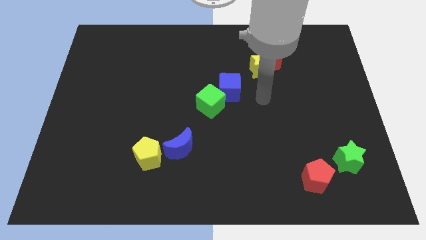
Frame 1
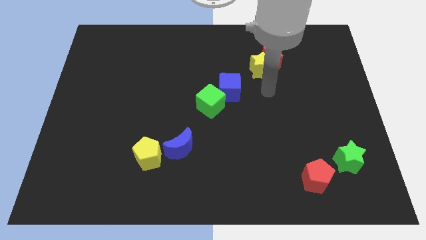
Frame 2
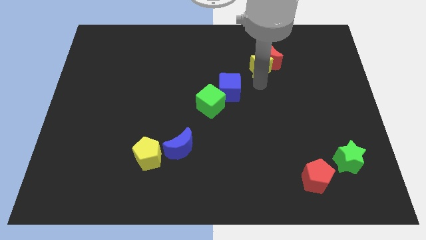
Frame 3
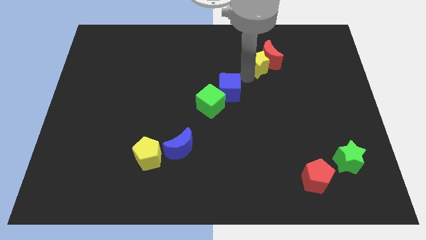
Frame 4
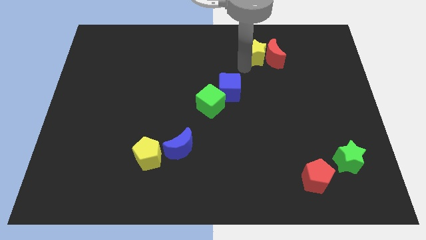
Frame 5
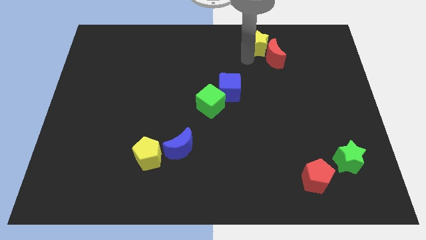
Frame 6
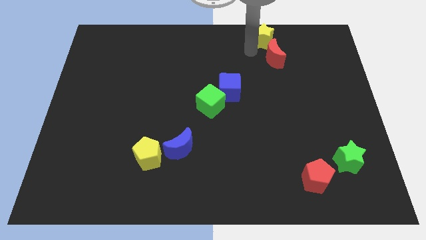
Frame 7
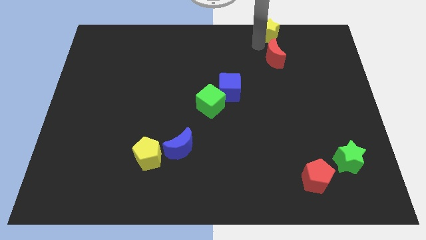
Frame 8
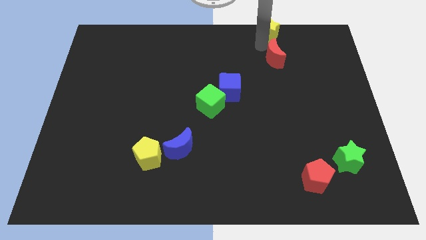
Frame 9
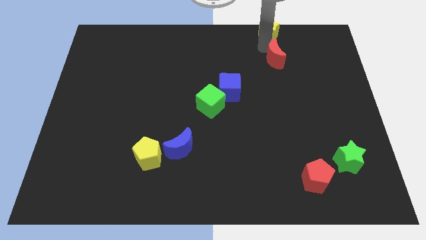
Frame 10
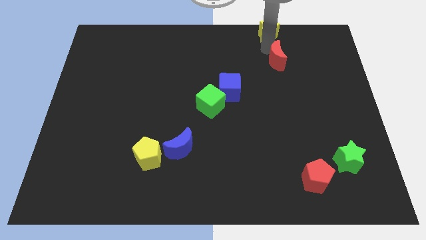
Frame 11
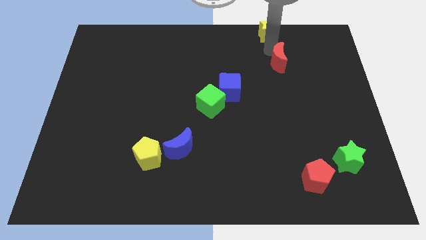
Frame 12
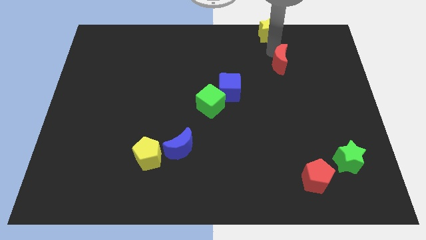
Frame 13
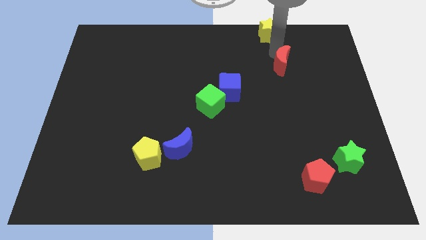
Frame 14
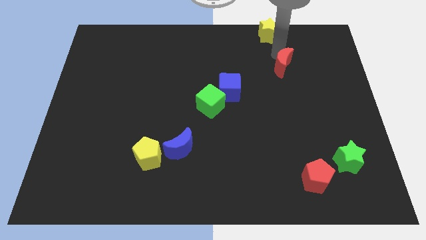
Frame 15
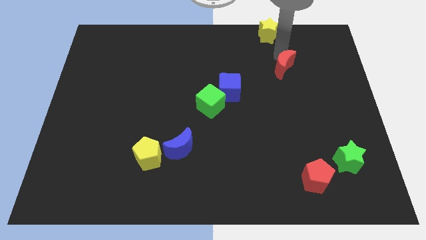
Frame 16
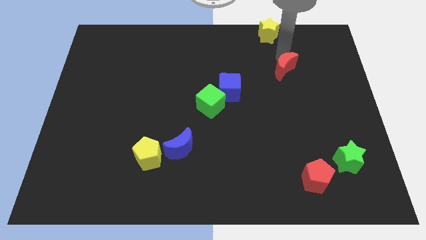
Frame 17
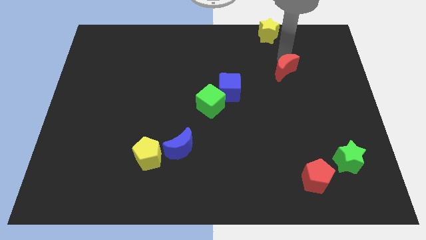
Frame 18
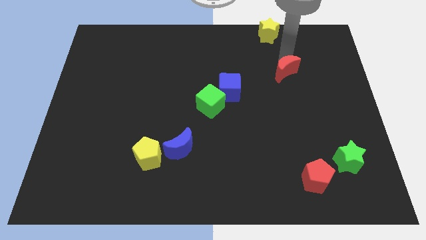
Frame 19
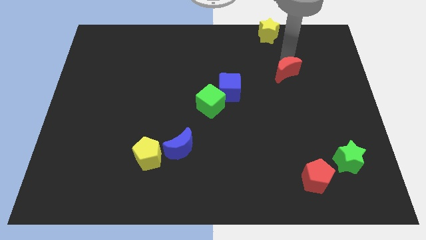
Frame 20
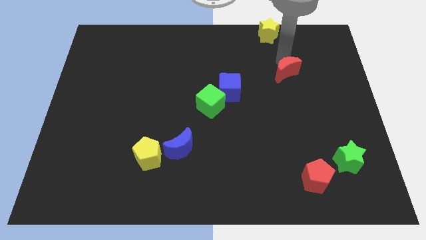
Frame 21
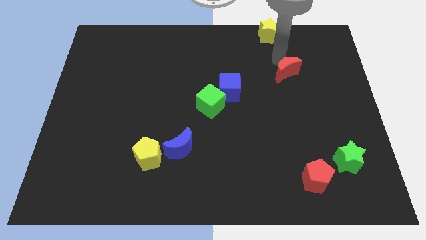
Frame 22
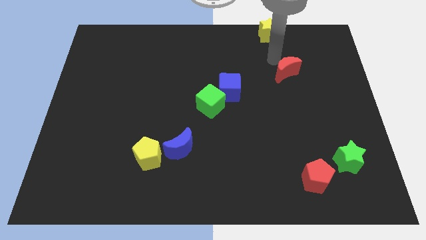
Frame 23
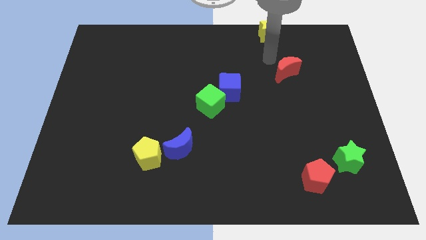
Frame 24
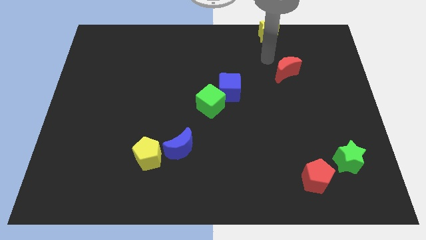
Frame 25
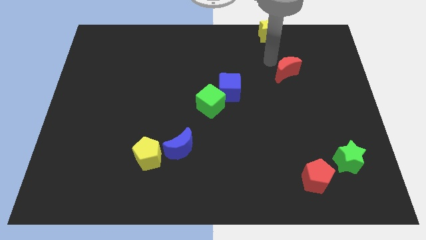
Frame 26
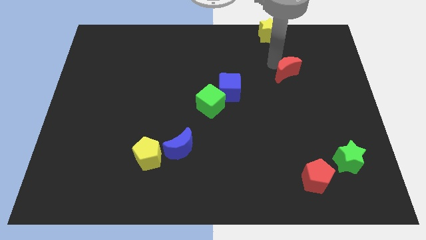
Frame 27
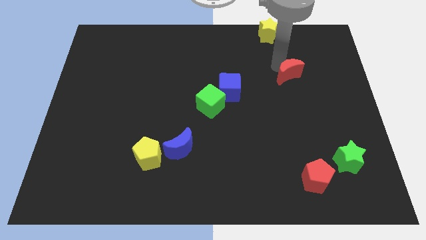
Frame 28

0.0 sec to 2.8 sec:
slide the red moon slightly down and to the right diagonally

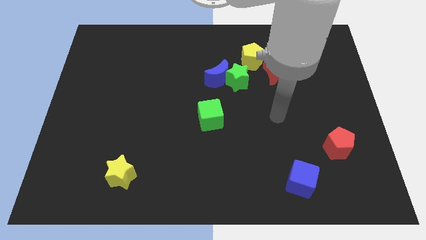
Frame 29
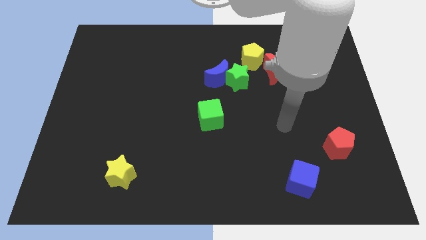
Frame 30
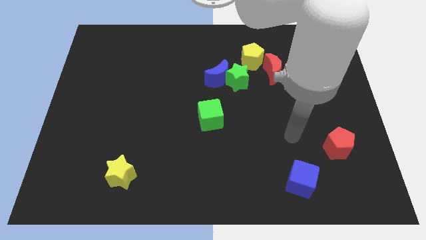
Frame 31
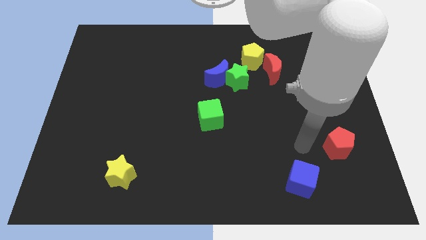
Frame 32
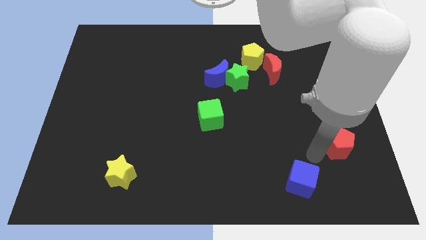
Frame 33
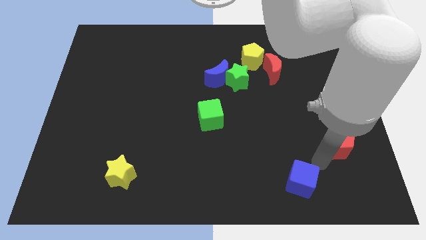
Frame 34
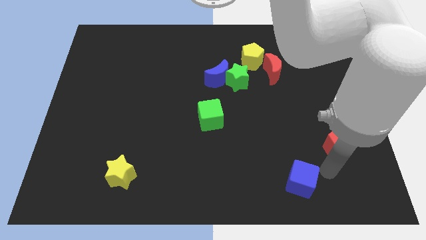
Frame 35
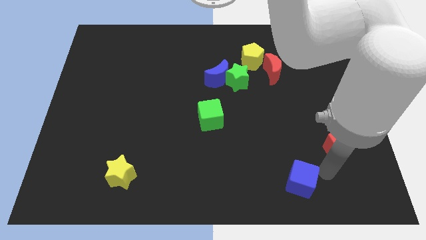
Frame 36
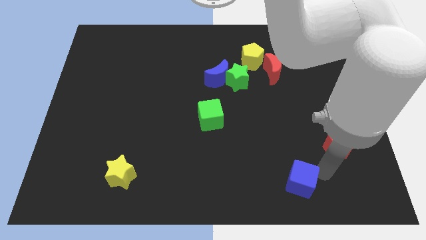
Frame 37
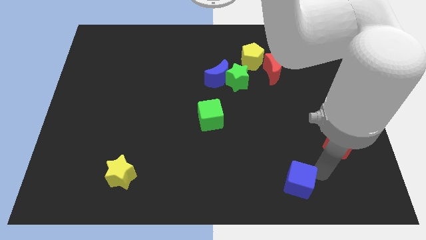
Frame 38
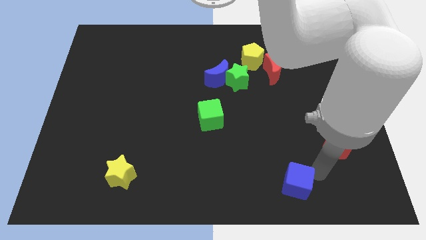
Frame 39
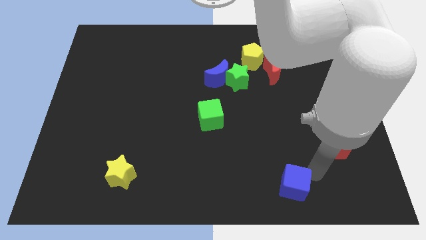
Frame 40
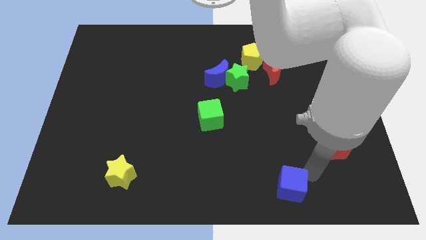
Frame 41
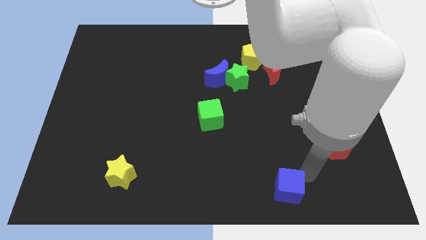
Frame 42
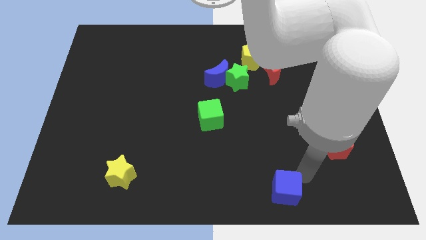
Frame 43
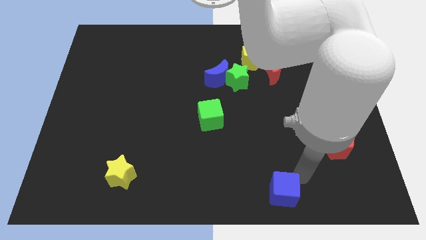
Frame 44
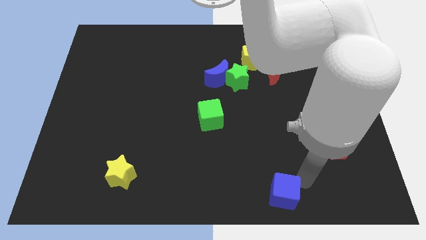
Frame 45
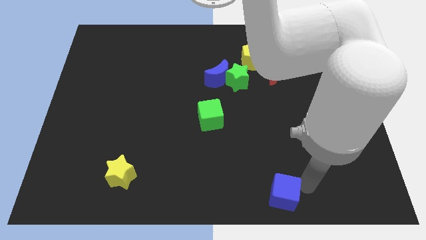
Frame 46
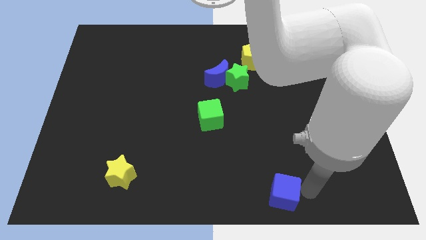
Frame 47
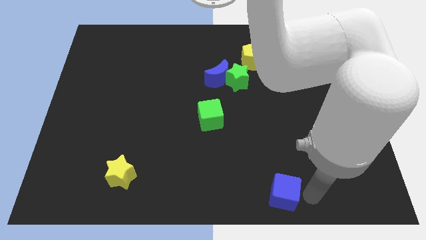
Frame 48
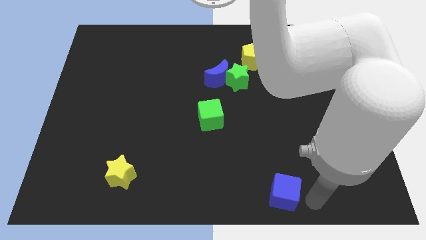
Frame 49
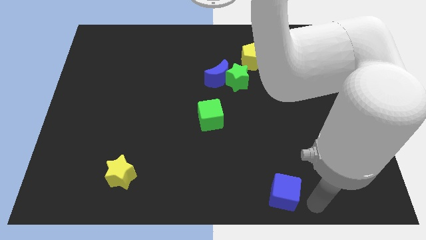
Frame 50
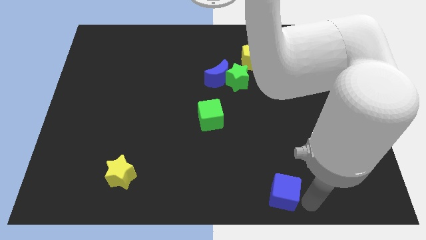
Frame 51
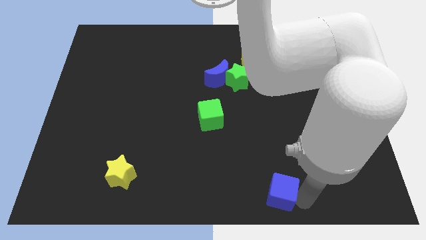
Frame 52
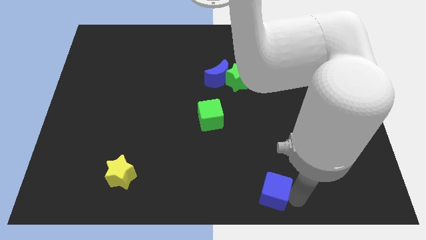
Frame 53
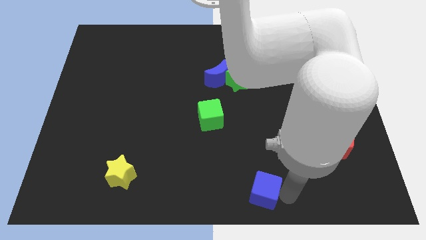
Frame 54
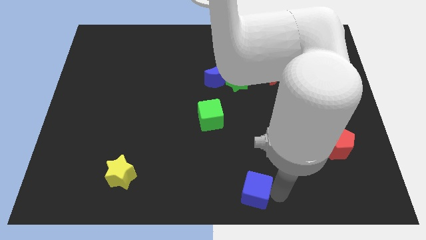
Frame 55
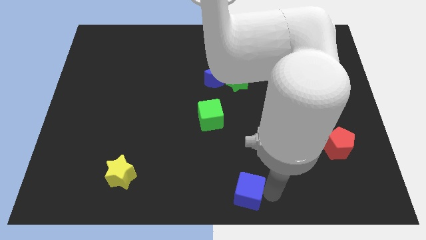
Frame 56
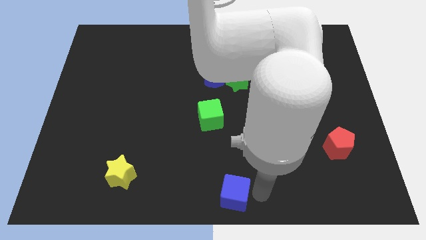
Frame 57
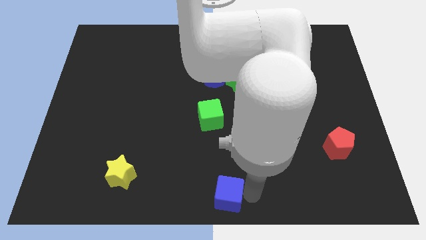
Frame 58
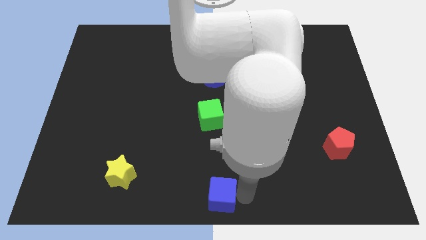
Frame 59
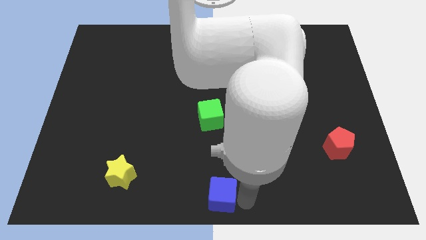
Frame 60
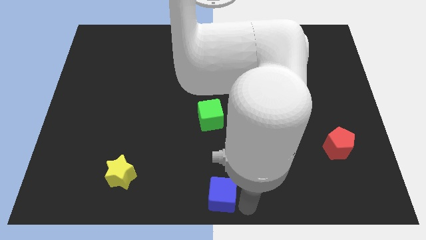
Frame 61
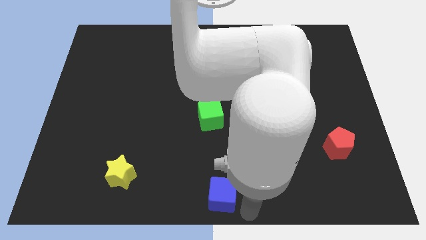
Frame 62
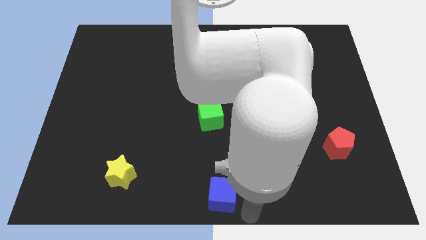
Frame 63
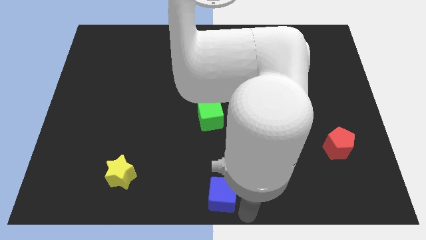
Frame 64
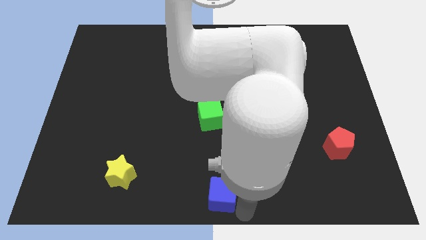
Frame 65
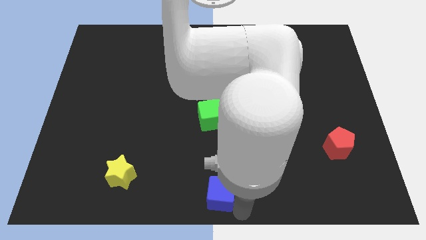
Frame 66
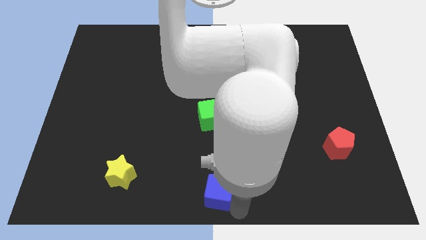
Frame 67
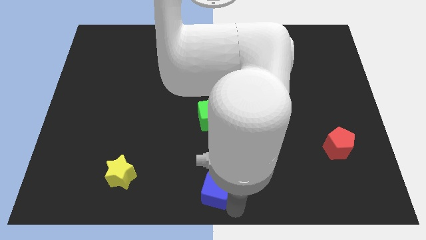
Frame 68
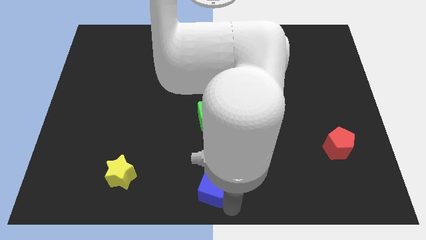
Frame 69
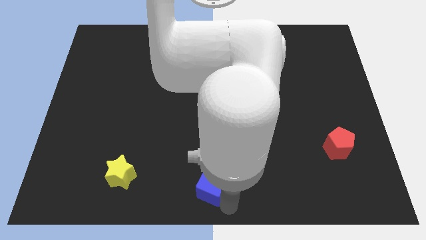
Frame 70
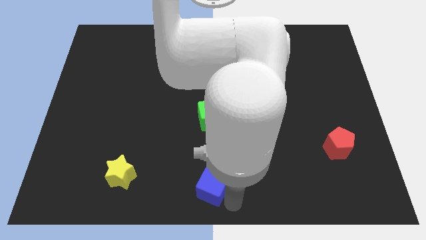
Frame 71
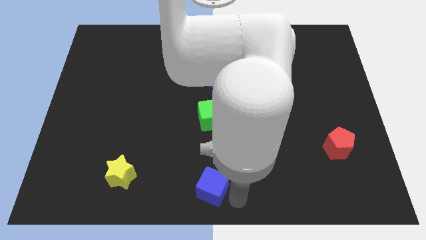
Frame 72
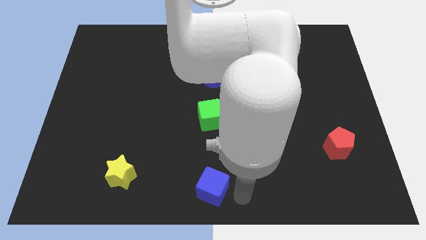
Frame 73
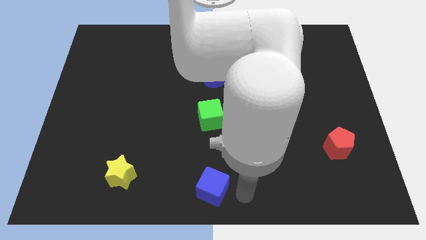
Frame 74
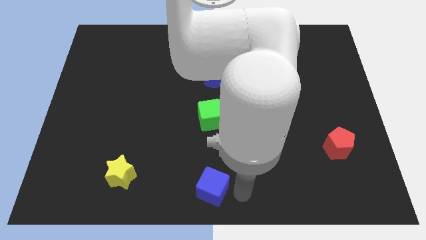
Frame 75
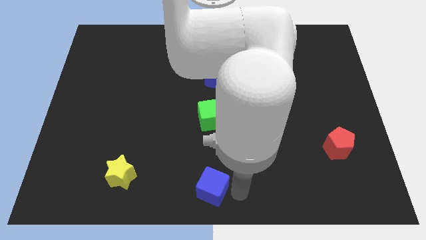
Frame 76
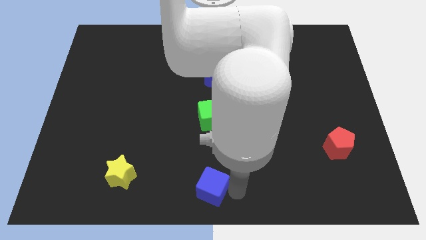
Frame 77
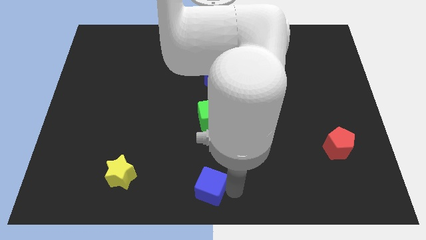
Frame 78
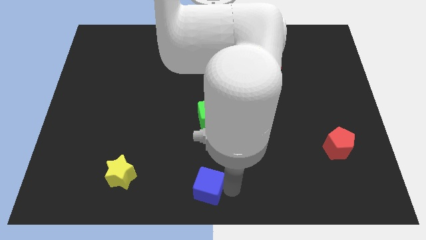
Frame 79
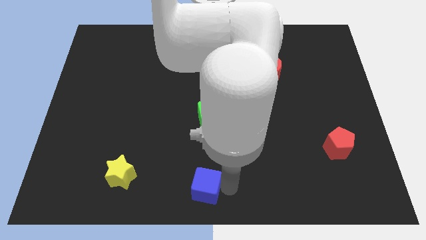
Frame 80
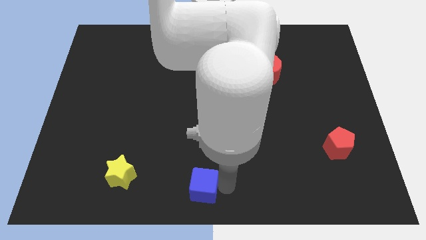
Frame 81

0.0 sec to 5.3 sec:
move the blue cube to the left
